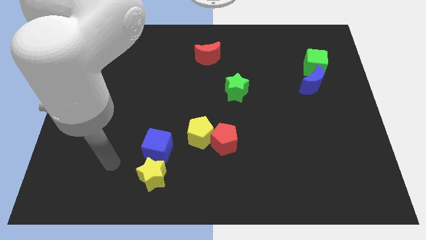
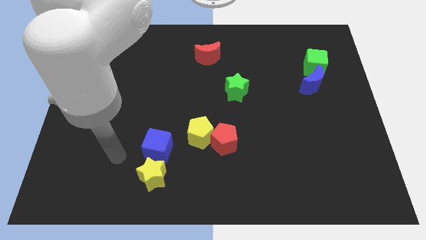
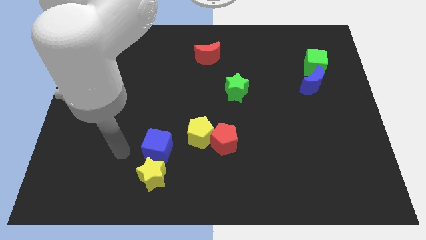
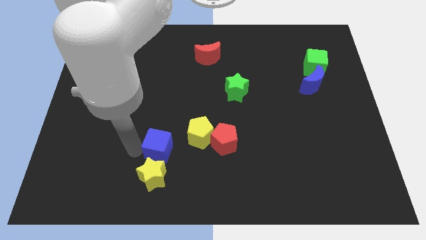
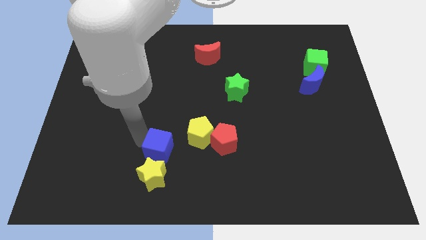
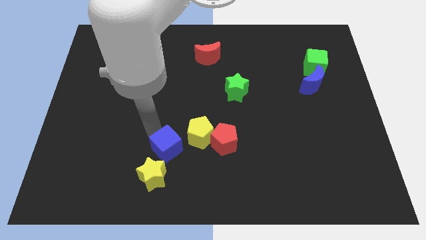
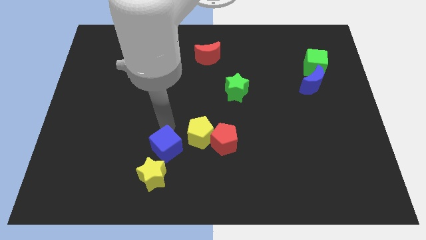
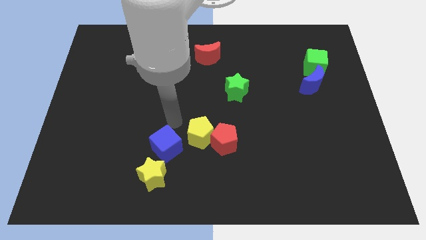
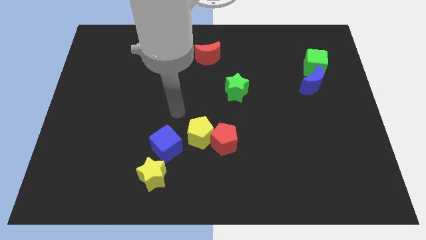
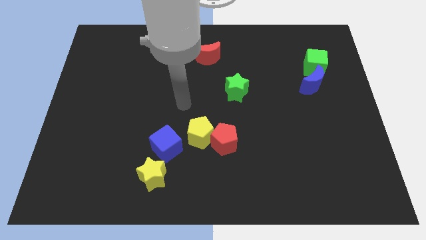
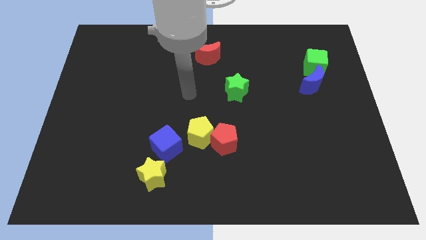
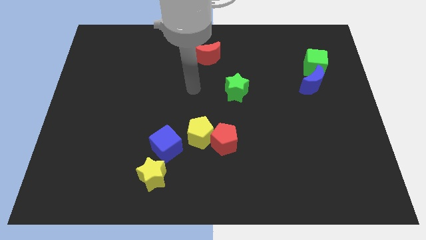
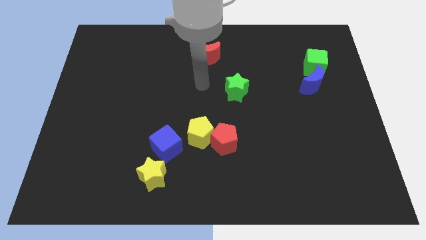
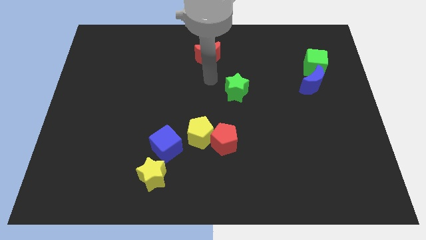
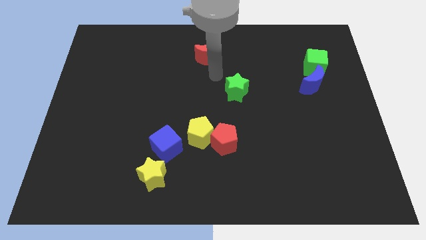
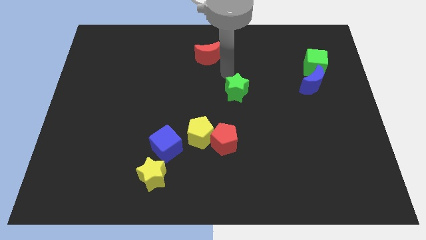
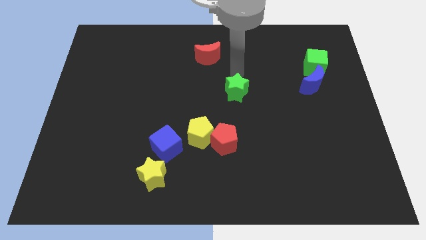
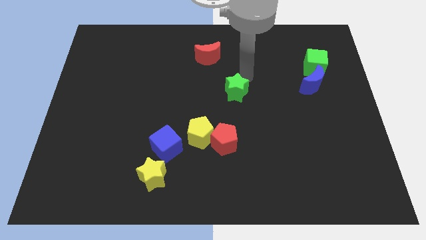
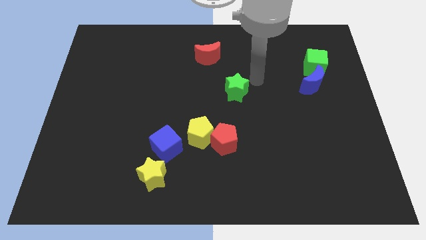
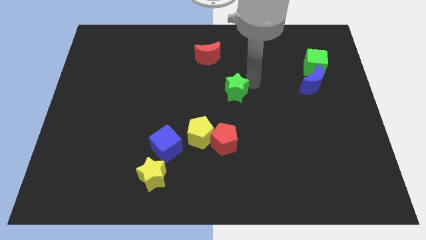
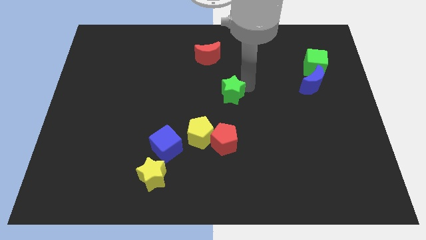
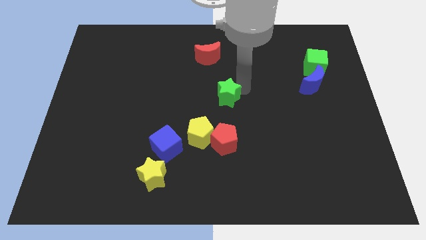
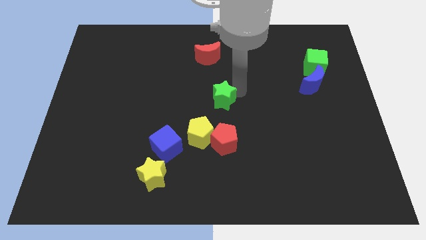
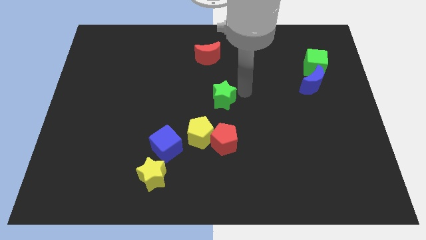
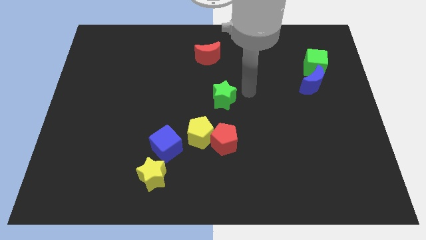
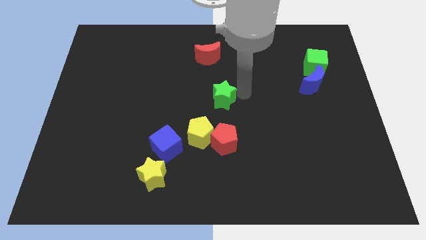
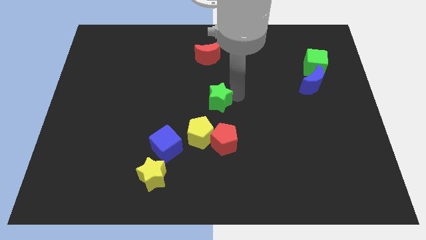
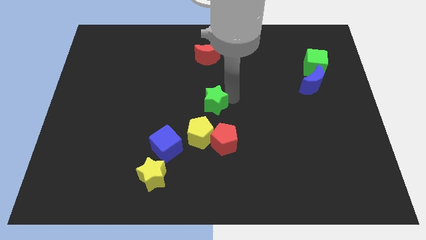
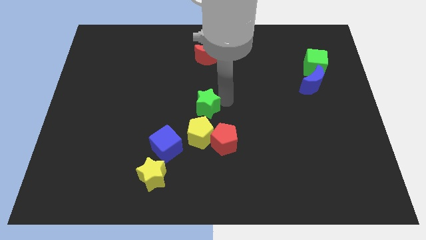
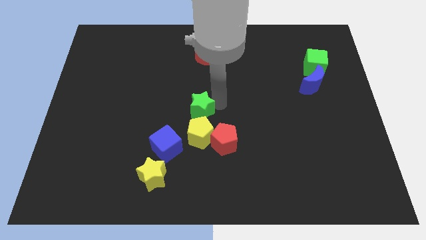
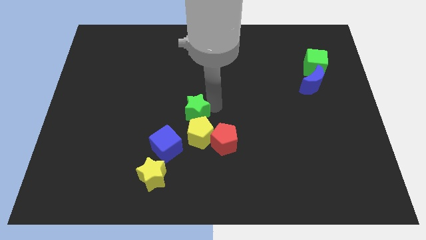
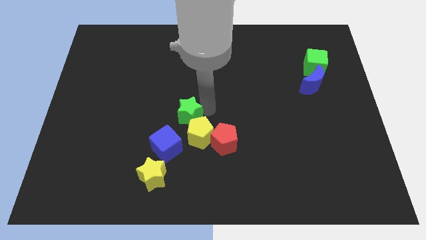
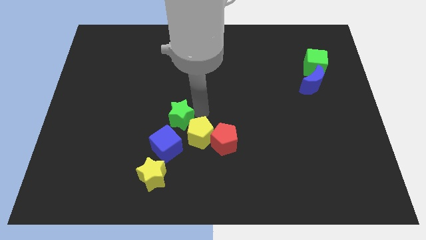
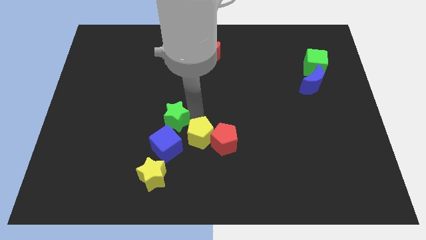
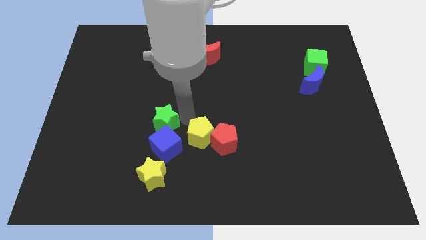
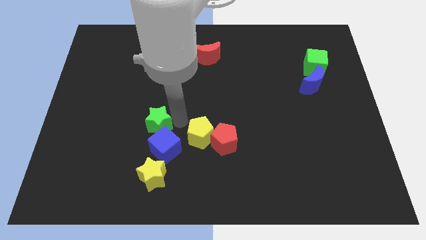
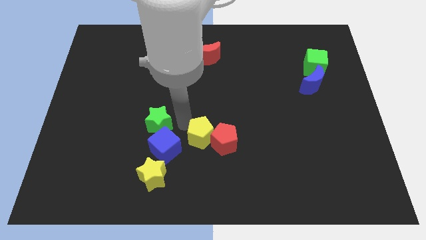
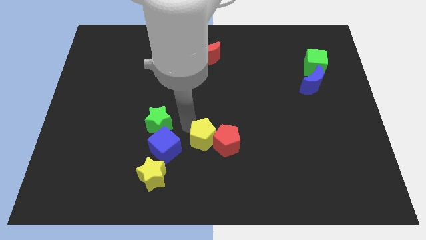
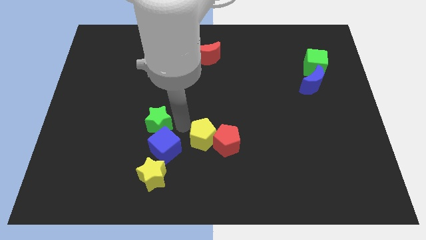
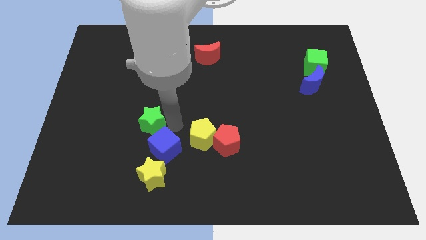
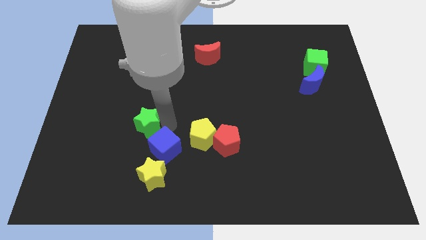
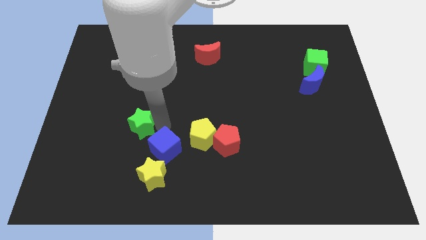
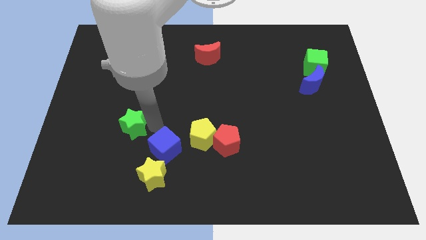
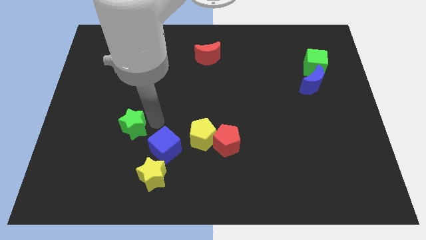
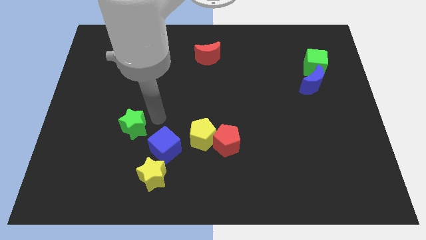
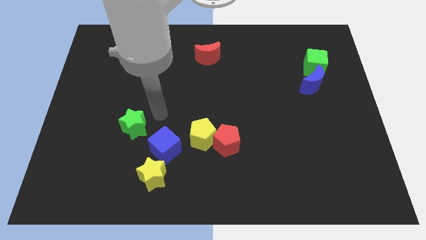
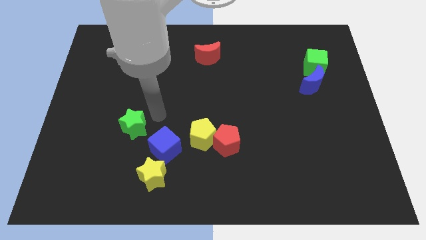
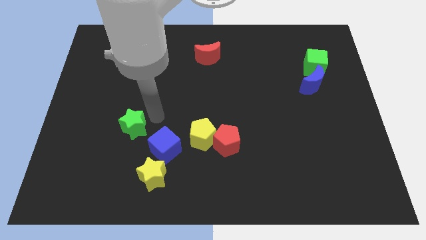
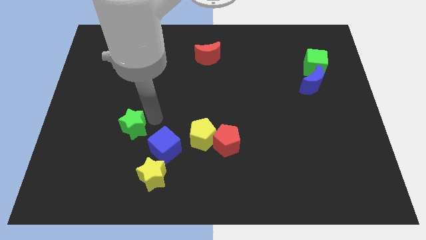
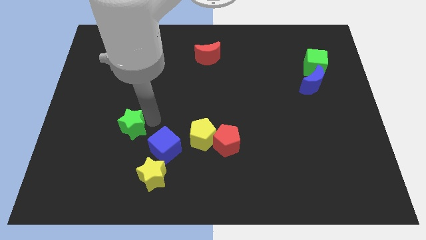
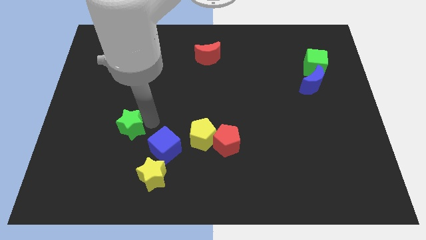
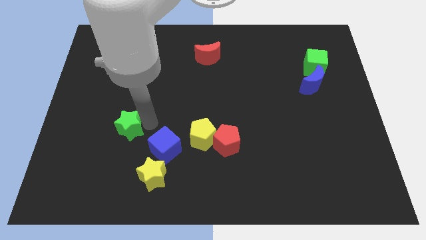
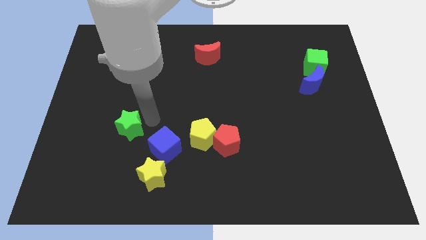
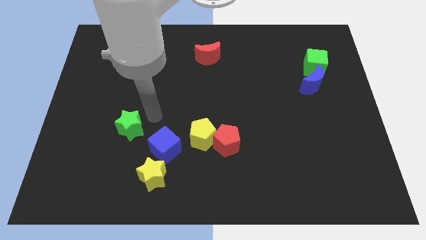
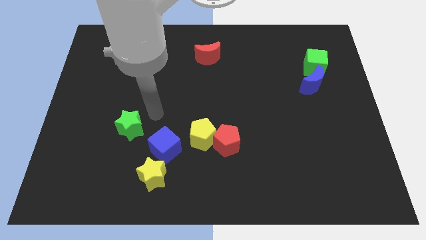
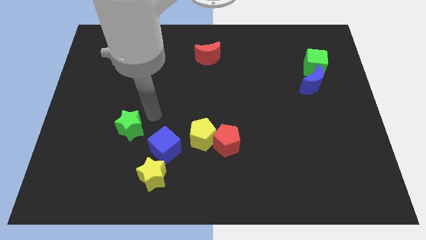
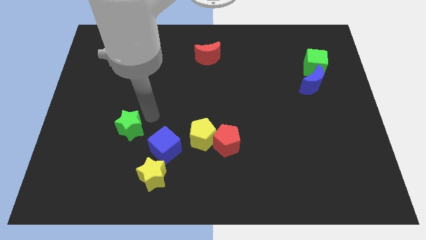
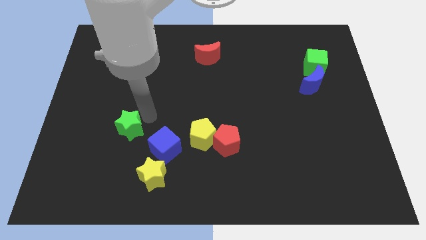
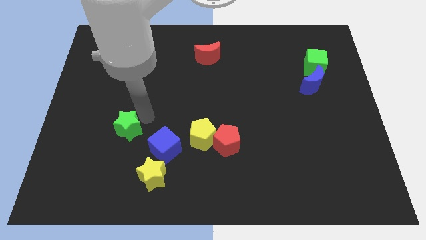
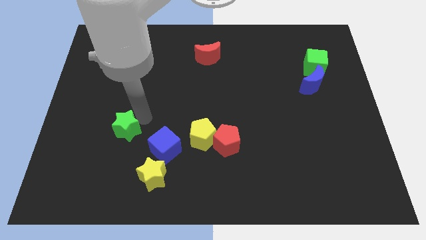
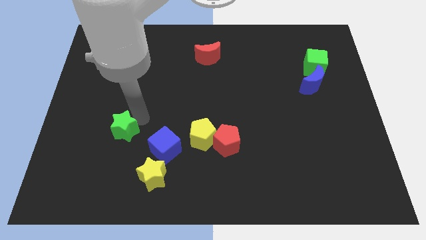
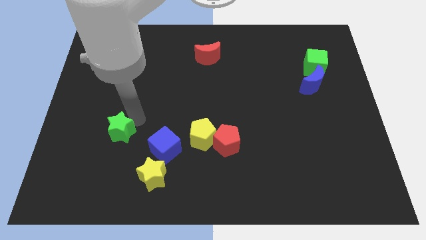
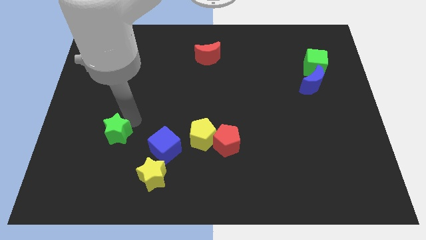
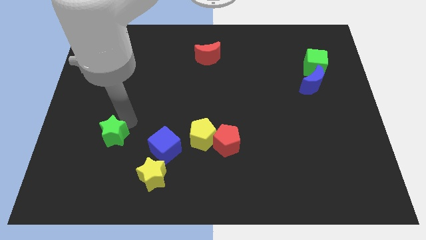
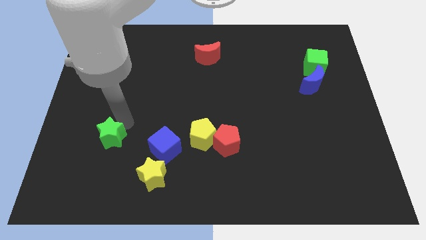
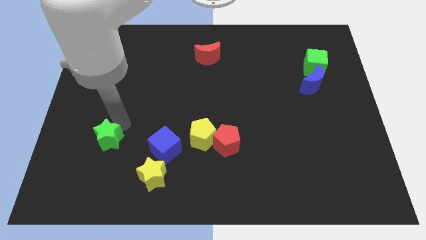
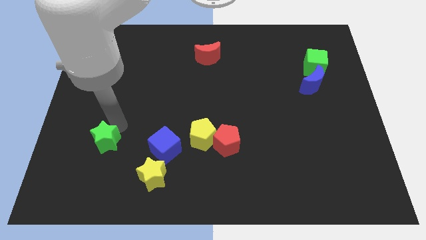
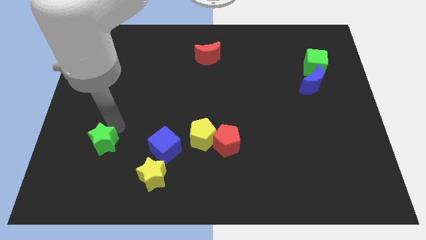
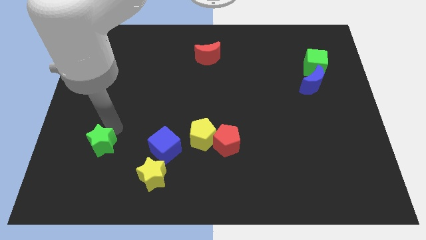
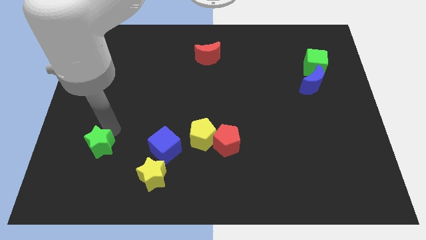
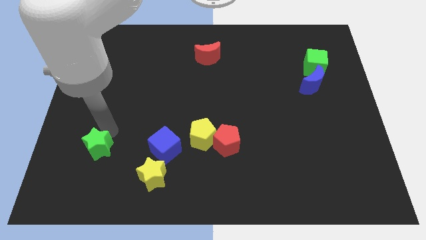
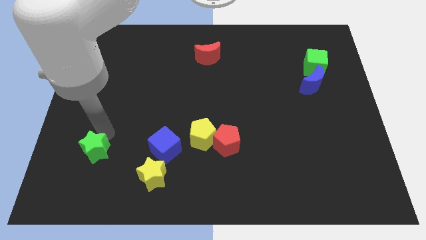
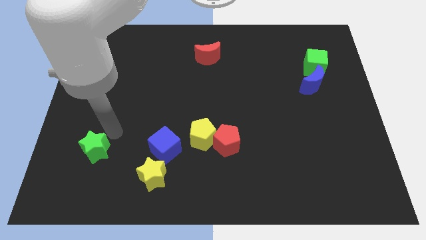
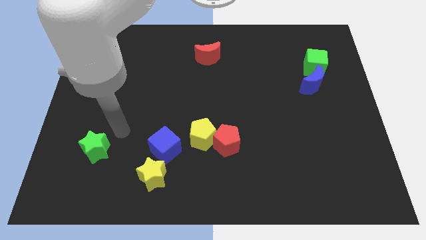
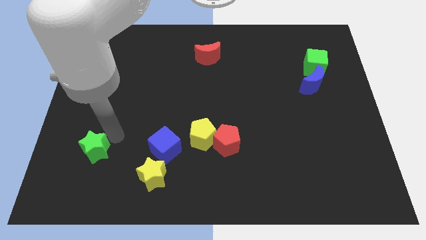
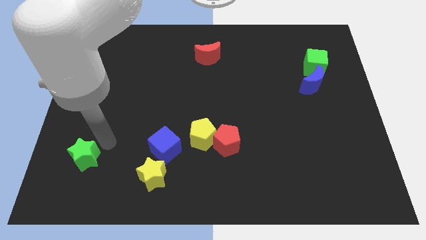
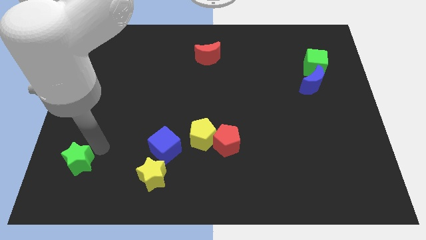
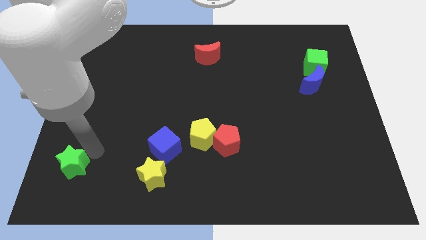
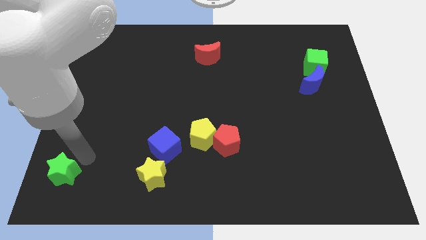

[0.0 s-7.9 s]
put the green star to the bottom left
